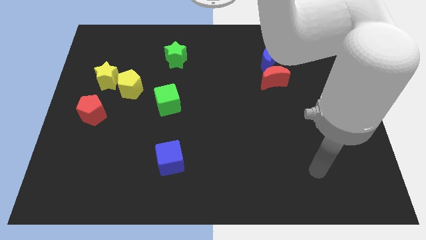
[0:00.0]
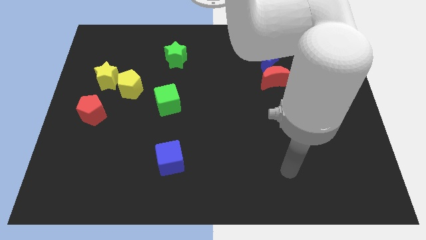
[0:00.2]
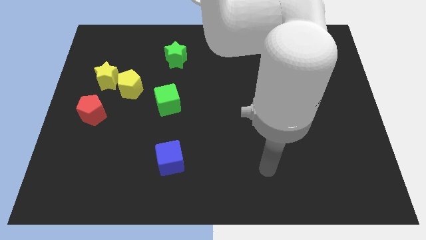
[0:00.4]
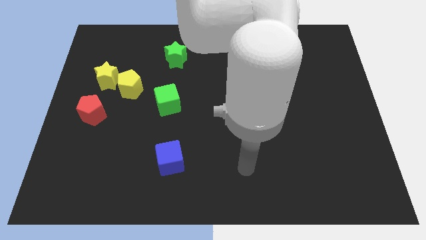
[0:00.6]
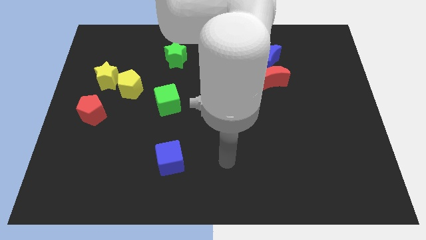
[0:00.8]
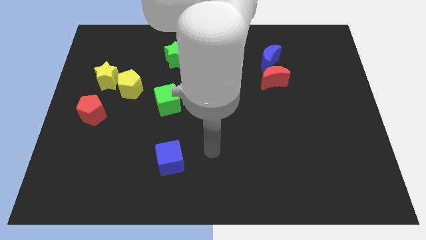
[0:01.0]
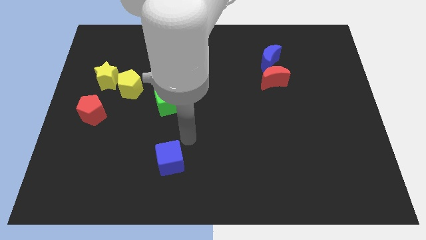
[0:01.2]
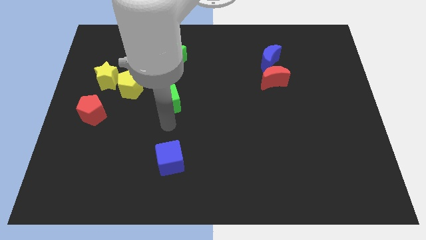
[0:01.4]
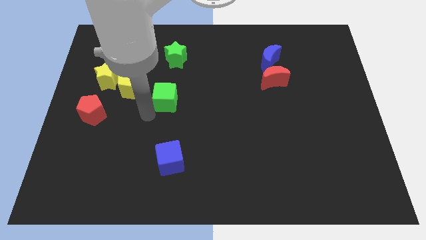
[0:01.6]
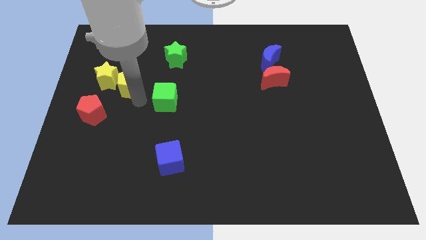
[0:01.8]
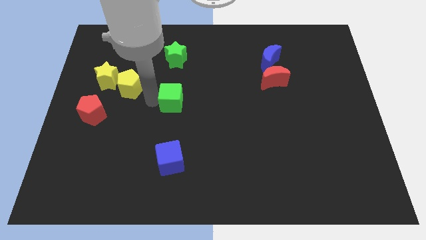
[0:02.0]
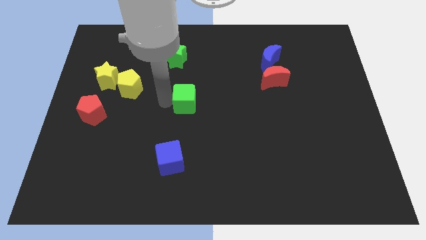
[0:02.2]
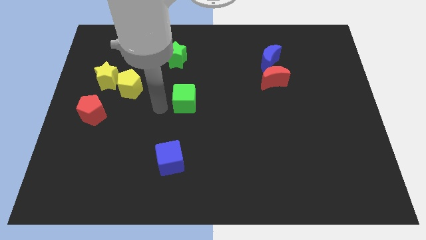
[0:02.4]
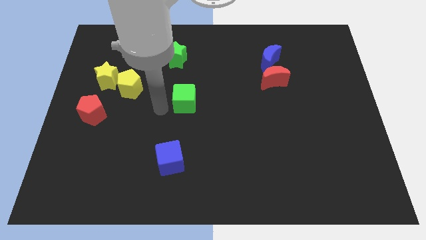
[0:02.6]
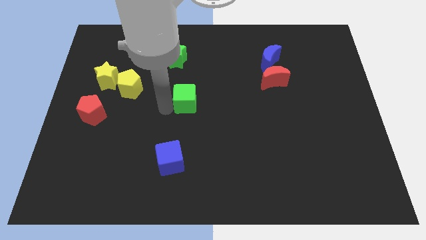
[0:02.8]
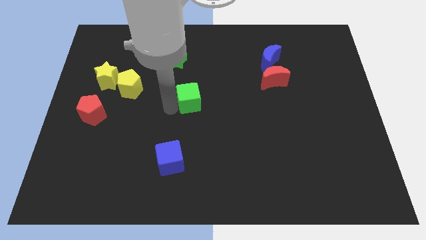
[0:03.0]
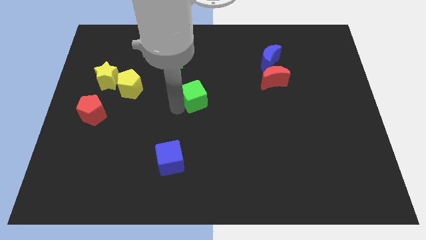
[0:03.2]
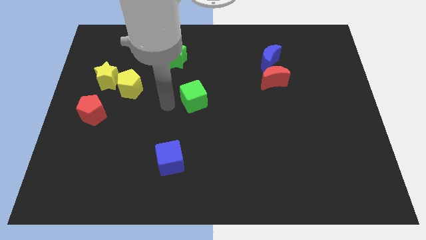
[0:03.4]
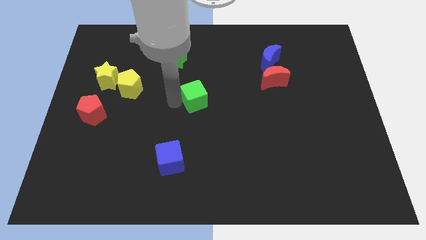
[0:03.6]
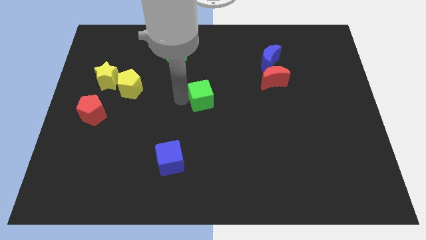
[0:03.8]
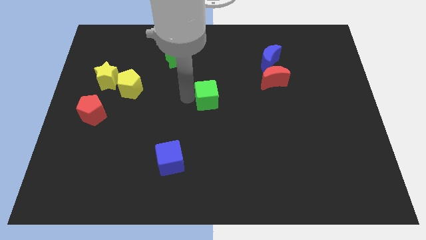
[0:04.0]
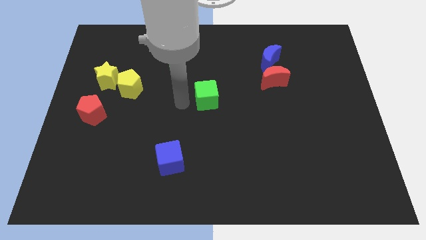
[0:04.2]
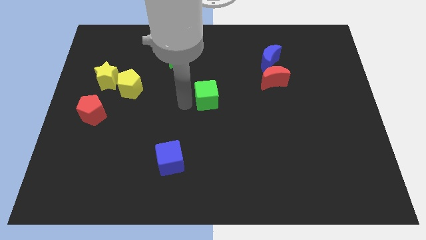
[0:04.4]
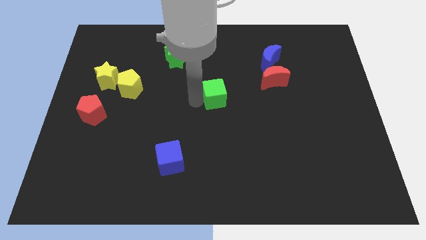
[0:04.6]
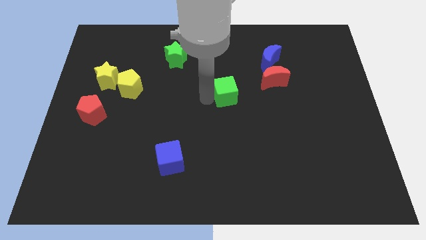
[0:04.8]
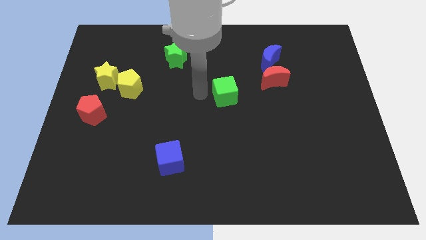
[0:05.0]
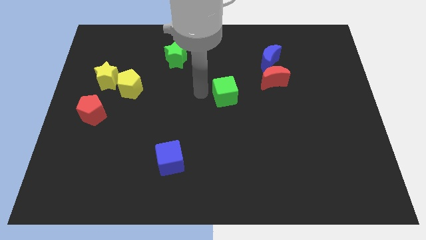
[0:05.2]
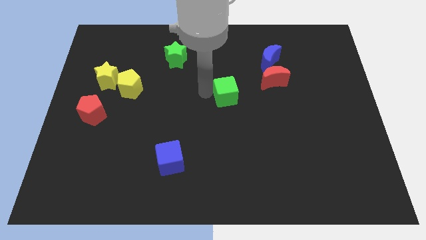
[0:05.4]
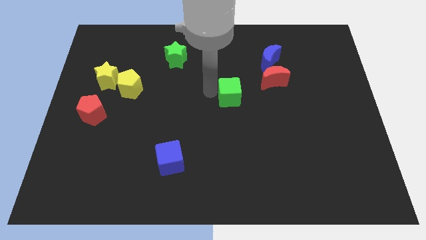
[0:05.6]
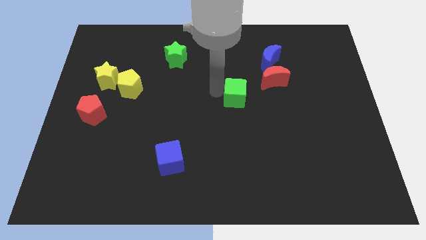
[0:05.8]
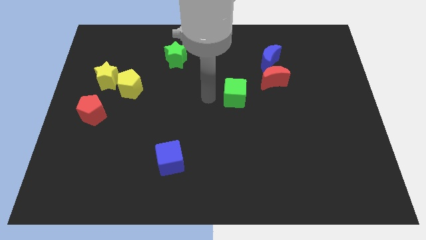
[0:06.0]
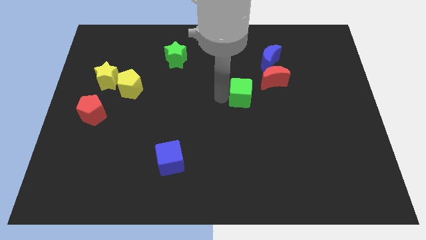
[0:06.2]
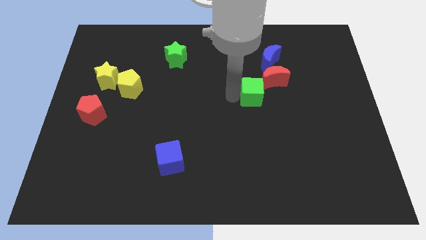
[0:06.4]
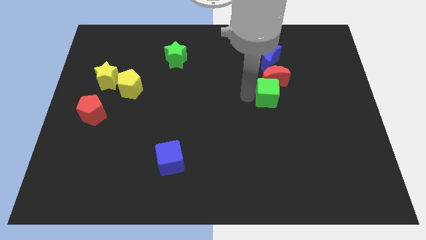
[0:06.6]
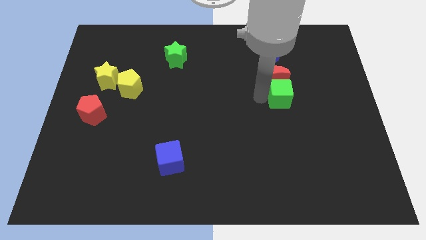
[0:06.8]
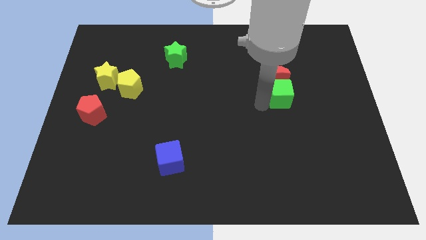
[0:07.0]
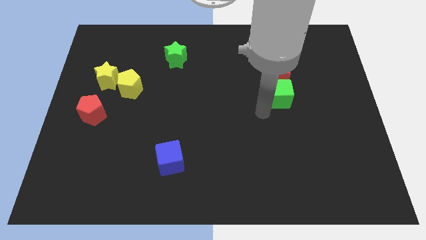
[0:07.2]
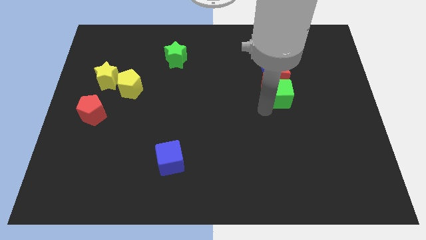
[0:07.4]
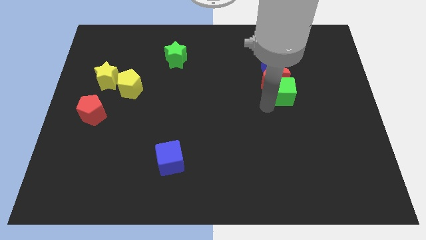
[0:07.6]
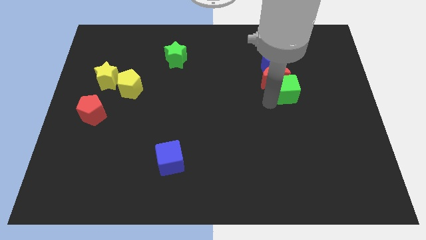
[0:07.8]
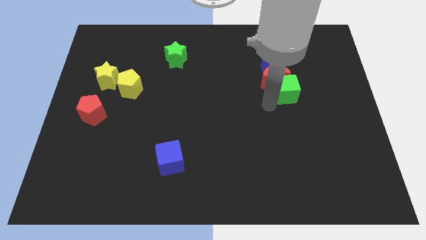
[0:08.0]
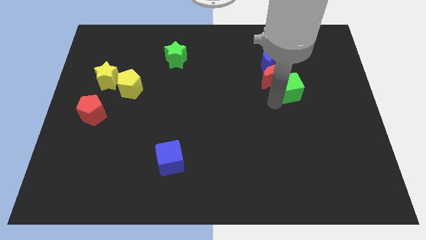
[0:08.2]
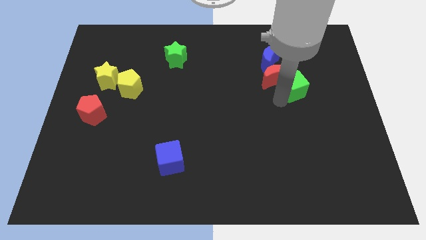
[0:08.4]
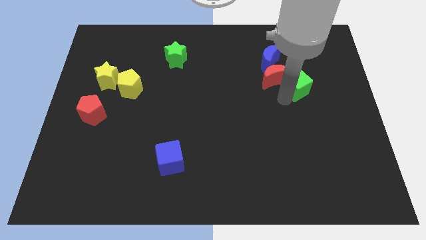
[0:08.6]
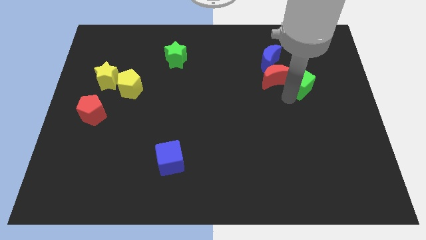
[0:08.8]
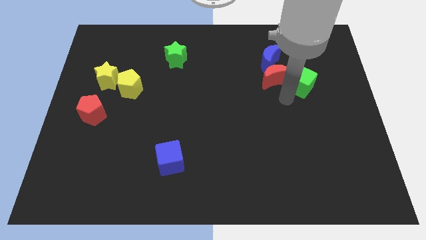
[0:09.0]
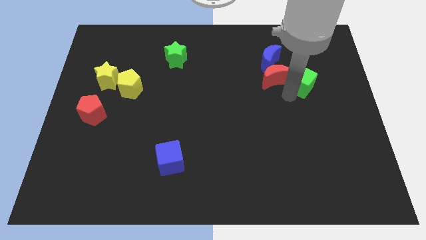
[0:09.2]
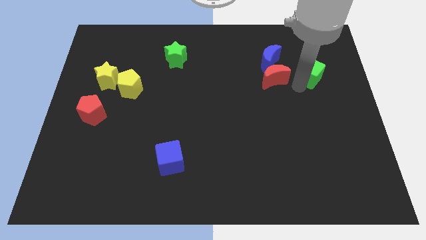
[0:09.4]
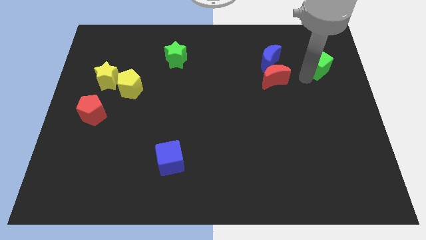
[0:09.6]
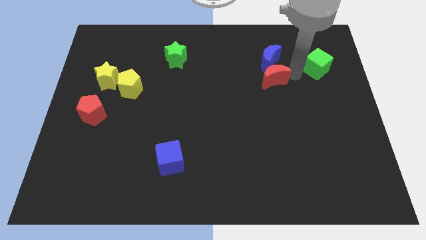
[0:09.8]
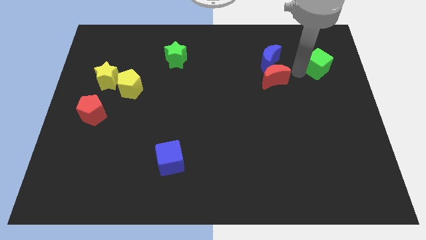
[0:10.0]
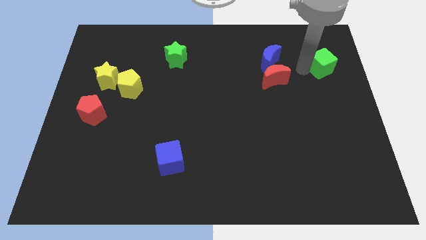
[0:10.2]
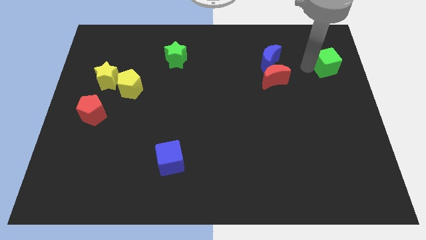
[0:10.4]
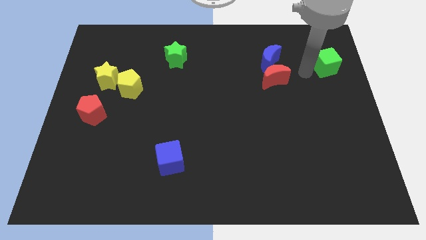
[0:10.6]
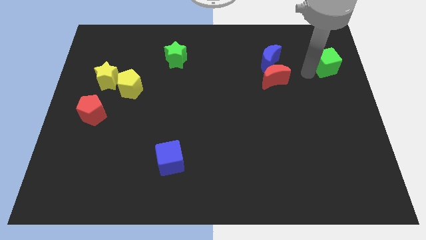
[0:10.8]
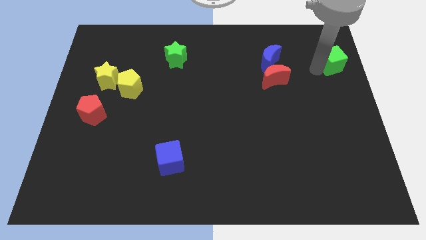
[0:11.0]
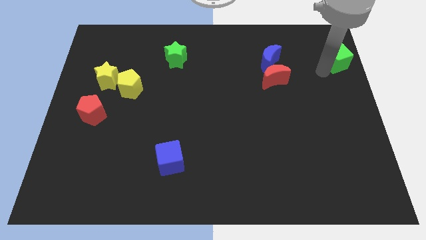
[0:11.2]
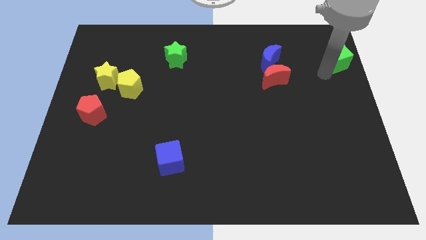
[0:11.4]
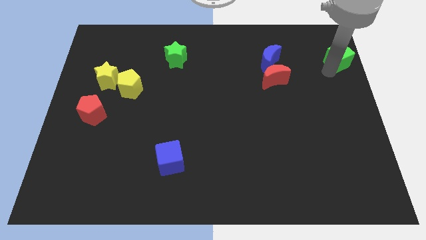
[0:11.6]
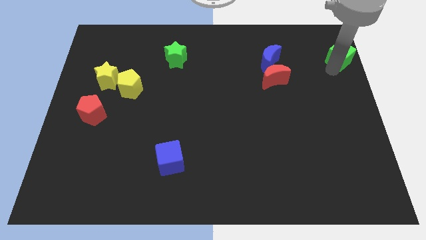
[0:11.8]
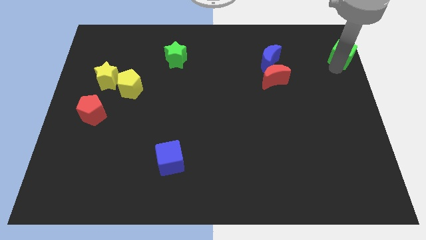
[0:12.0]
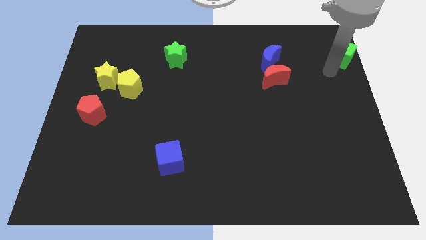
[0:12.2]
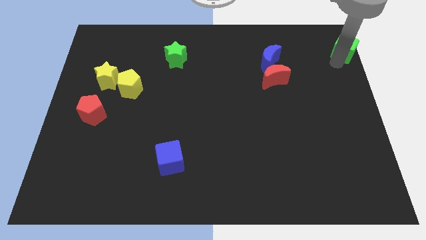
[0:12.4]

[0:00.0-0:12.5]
slide the green cube to the top right
